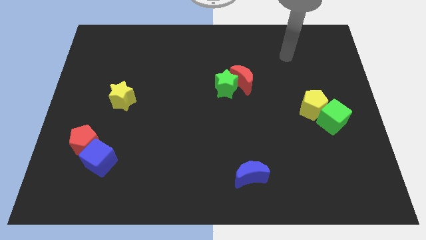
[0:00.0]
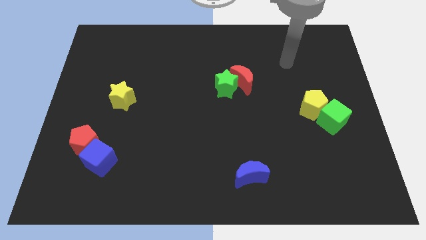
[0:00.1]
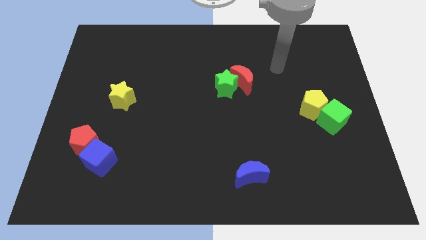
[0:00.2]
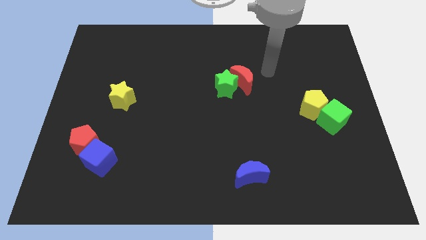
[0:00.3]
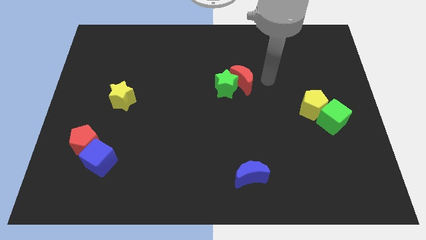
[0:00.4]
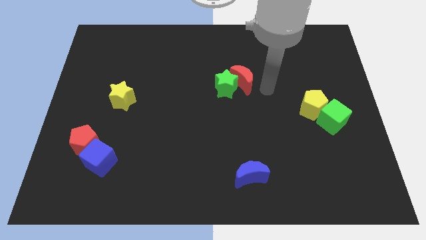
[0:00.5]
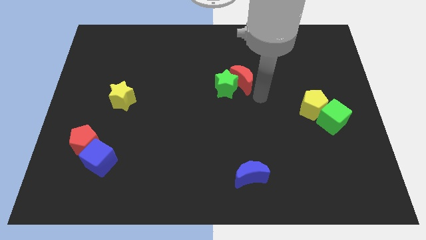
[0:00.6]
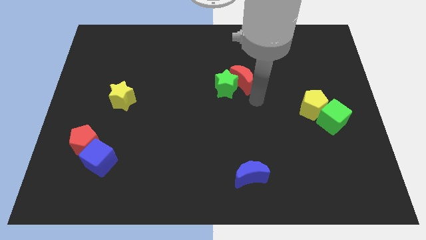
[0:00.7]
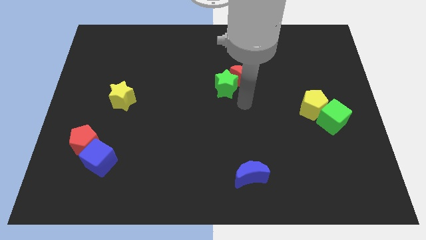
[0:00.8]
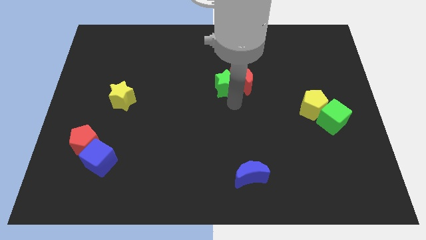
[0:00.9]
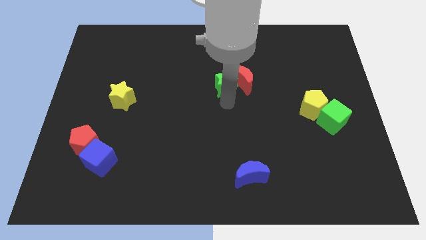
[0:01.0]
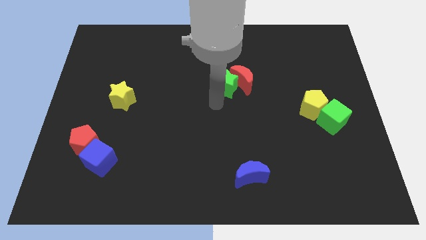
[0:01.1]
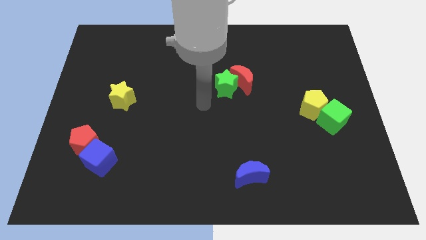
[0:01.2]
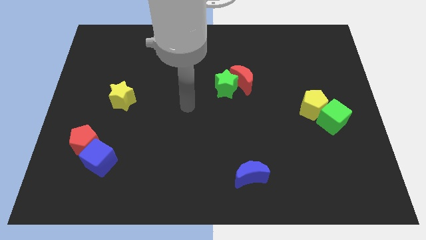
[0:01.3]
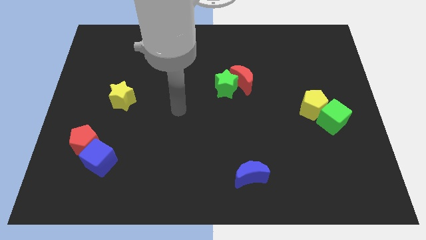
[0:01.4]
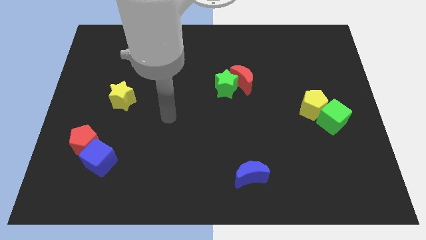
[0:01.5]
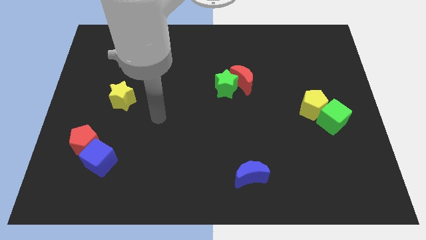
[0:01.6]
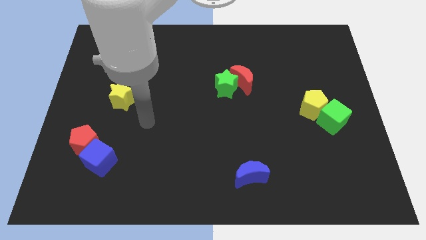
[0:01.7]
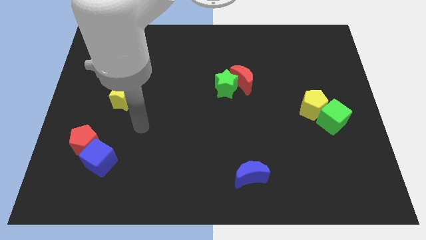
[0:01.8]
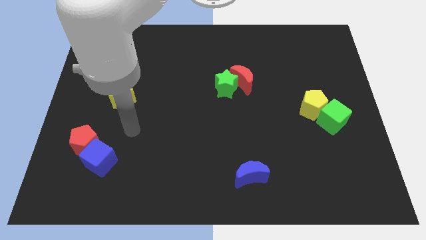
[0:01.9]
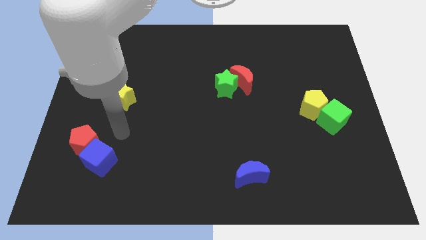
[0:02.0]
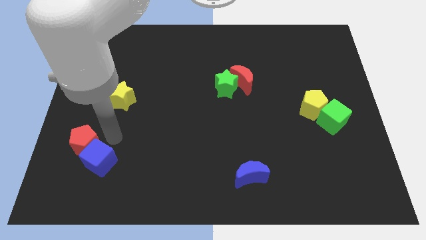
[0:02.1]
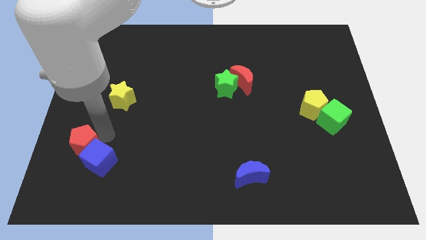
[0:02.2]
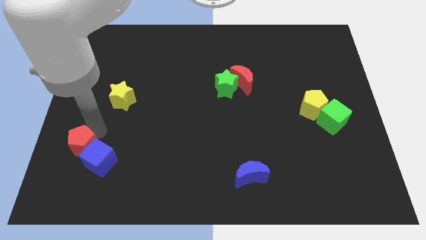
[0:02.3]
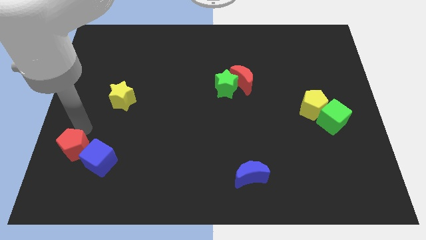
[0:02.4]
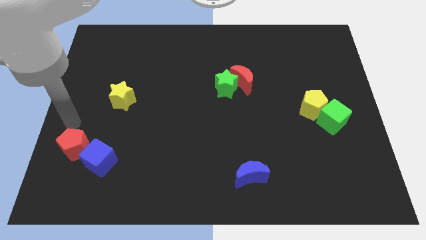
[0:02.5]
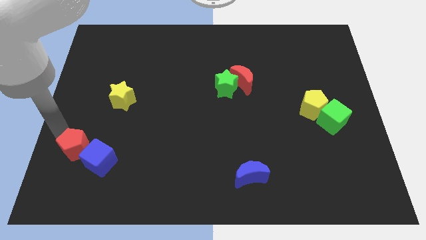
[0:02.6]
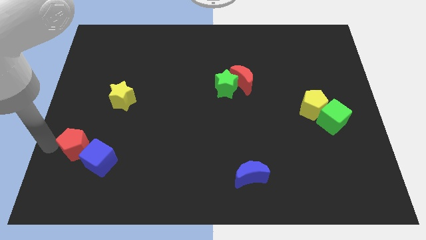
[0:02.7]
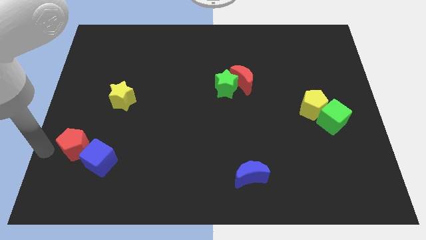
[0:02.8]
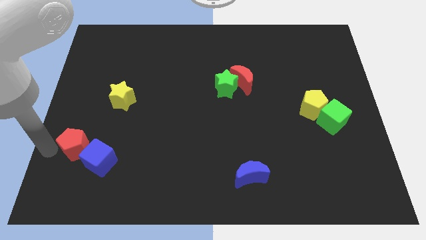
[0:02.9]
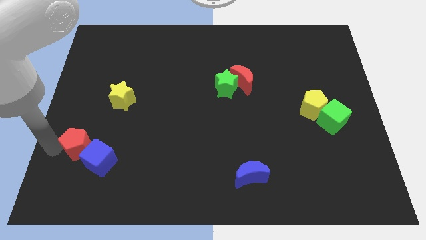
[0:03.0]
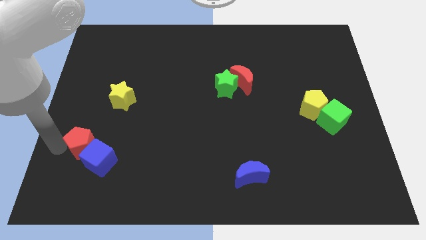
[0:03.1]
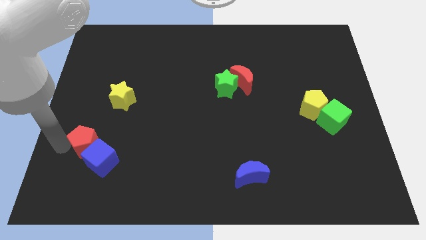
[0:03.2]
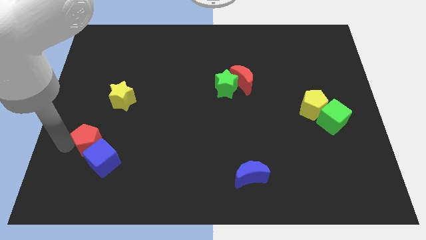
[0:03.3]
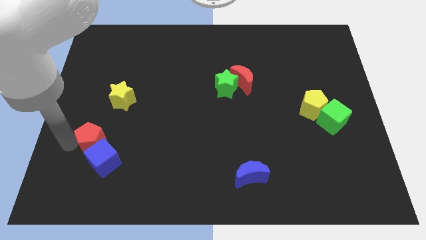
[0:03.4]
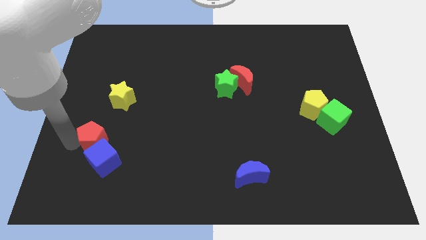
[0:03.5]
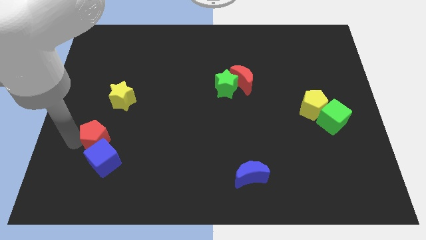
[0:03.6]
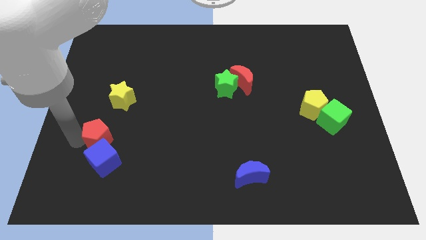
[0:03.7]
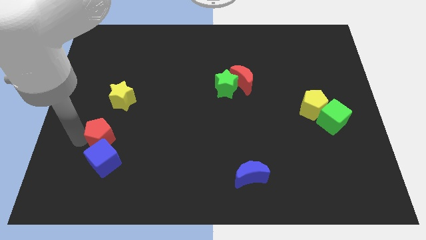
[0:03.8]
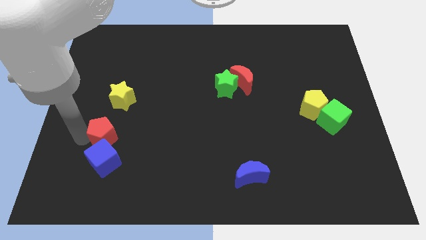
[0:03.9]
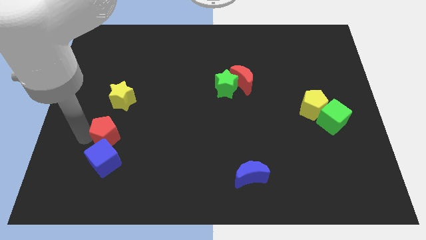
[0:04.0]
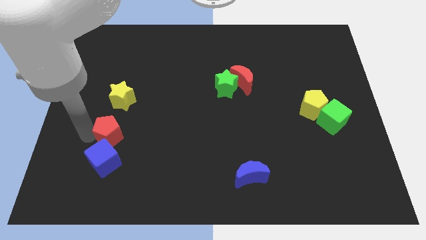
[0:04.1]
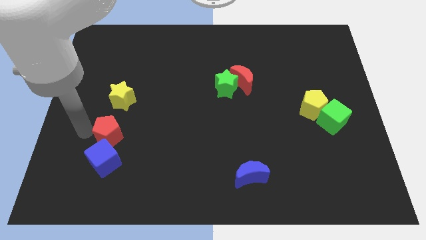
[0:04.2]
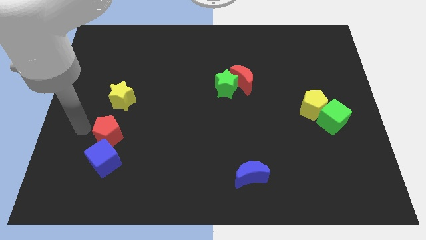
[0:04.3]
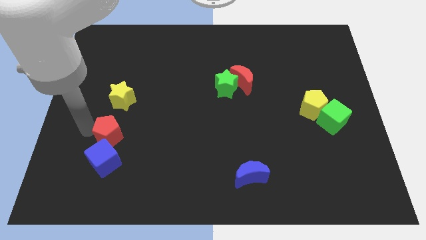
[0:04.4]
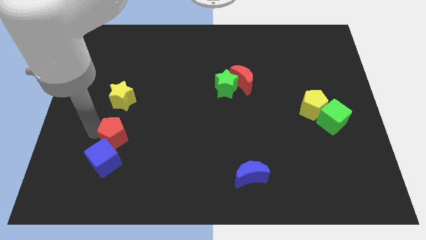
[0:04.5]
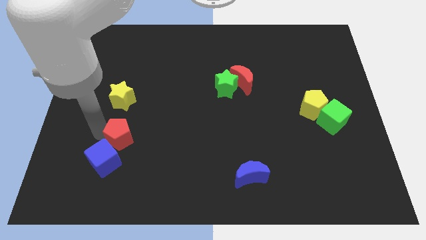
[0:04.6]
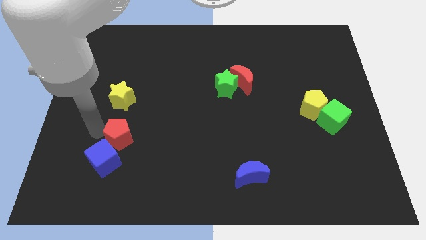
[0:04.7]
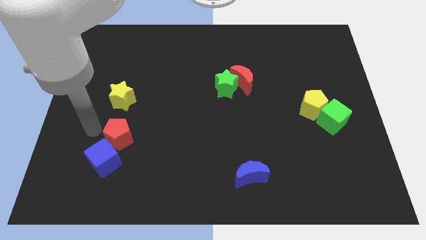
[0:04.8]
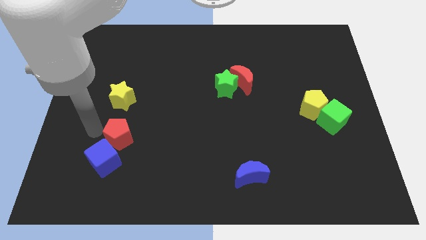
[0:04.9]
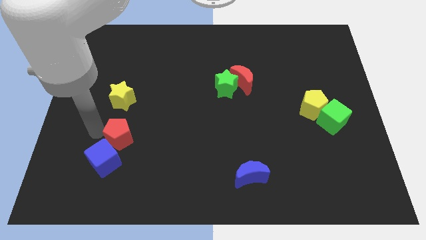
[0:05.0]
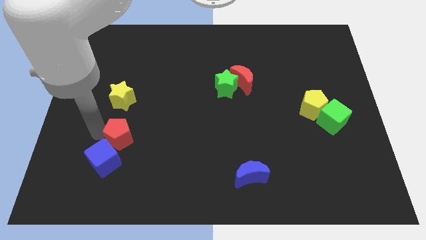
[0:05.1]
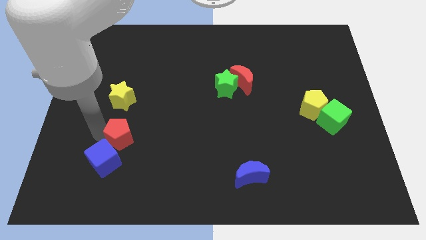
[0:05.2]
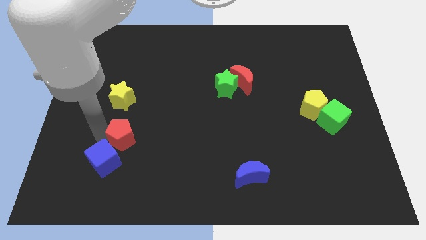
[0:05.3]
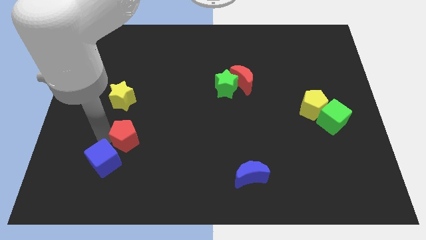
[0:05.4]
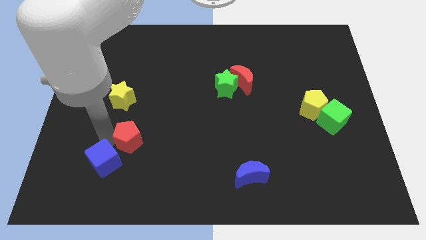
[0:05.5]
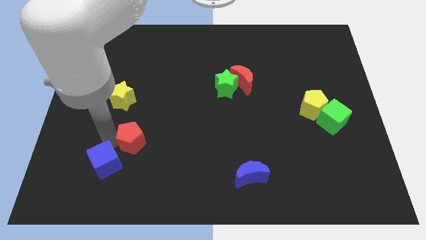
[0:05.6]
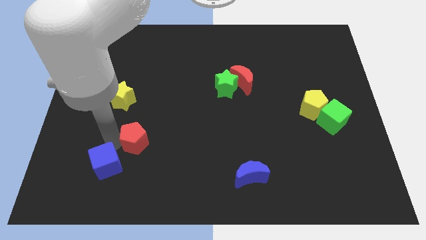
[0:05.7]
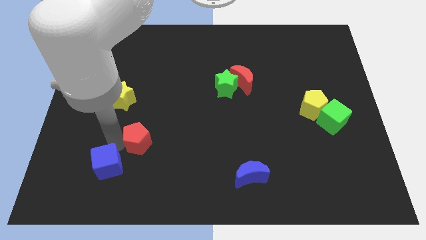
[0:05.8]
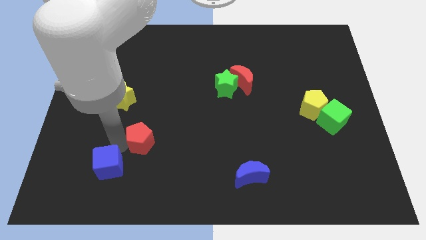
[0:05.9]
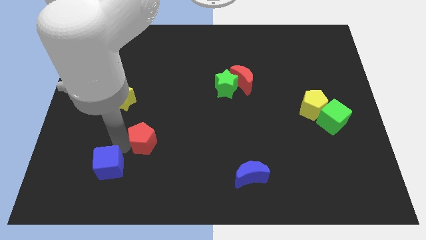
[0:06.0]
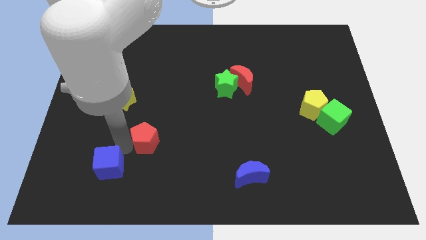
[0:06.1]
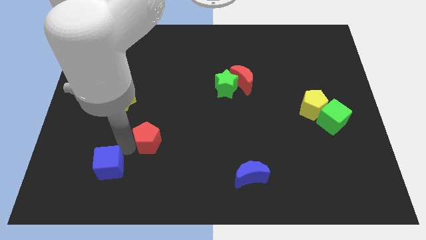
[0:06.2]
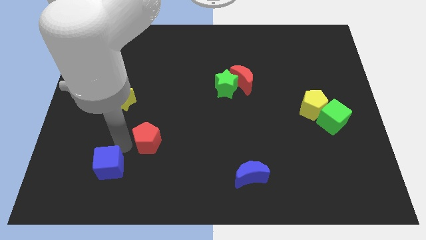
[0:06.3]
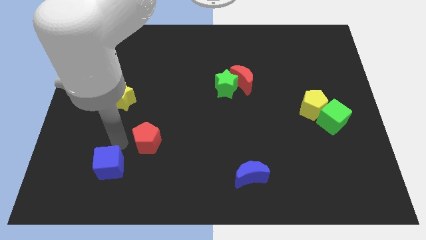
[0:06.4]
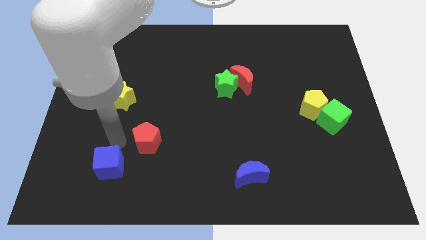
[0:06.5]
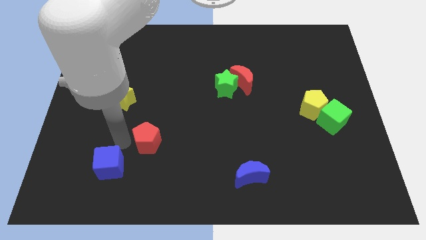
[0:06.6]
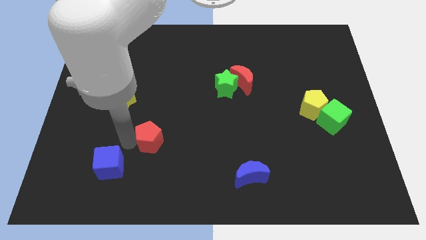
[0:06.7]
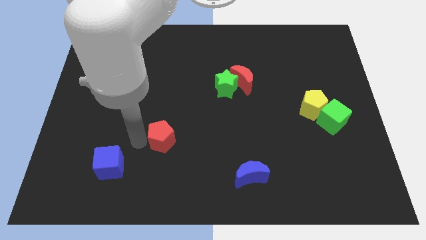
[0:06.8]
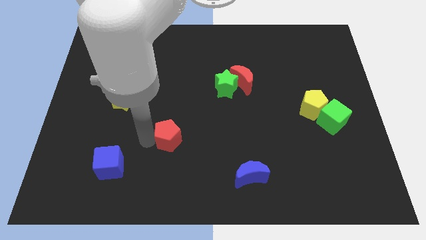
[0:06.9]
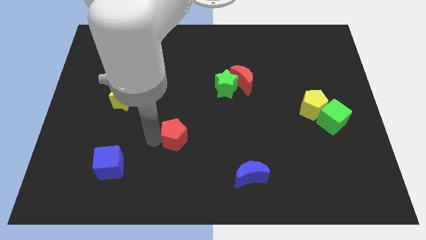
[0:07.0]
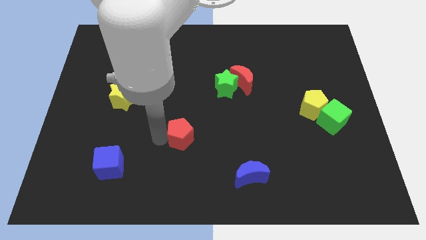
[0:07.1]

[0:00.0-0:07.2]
push the red pentagon to the right

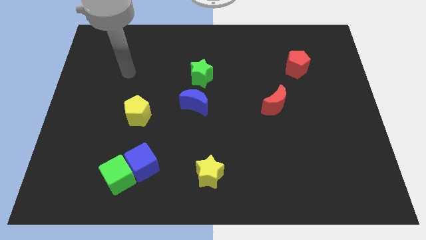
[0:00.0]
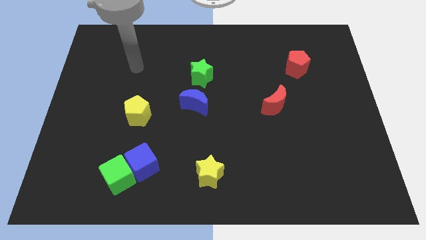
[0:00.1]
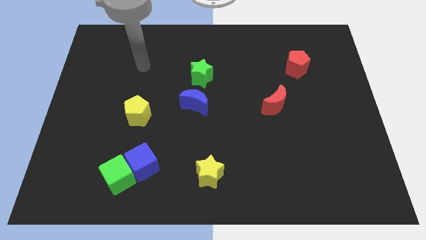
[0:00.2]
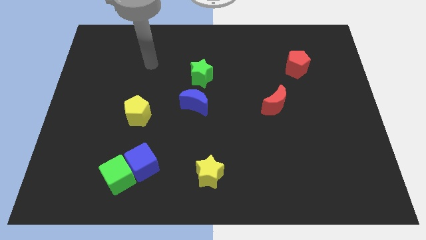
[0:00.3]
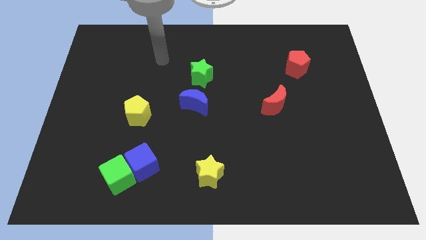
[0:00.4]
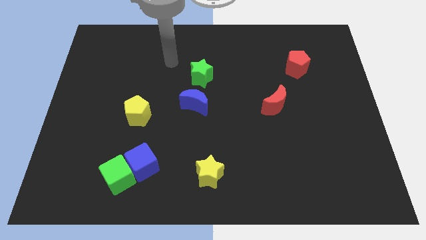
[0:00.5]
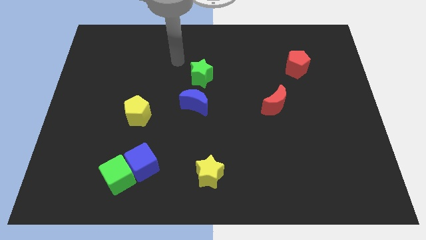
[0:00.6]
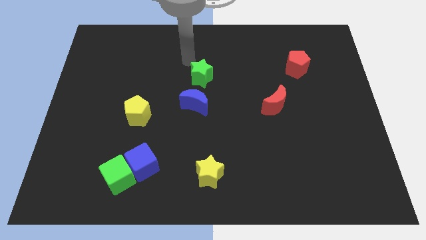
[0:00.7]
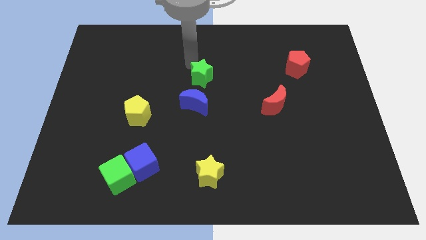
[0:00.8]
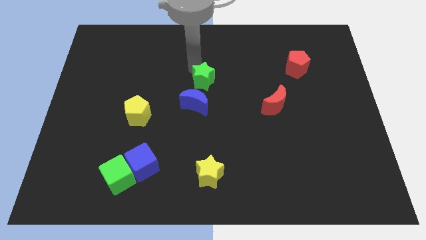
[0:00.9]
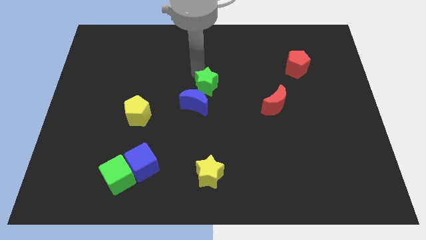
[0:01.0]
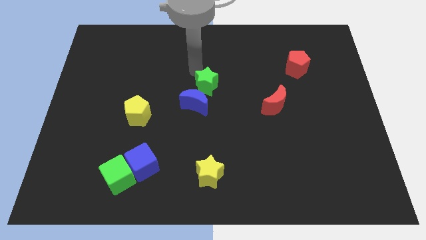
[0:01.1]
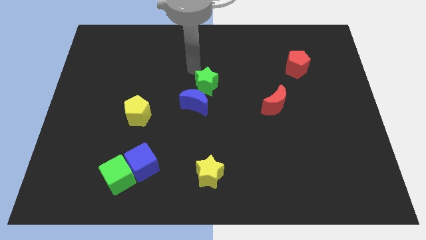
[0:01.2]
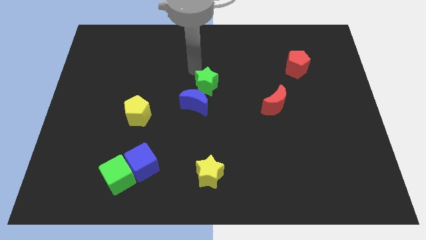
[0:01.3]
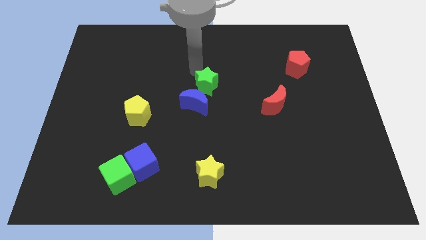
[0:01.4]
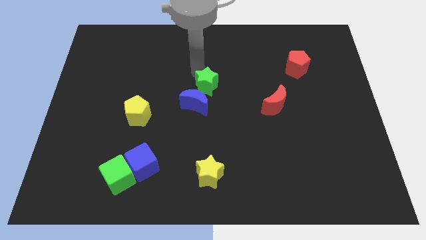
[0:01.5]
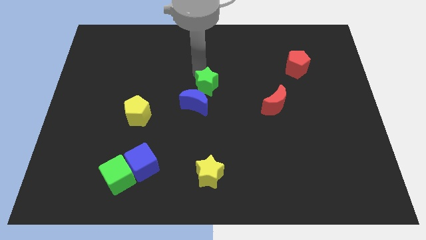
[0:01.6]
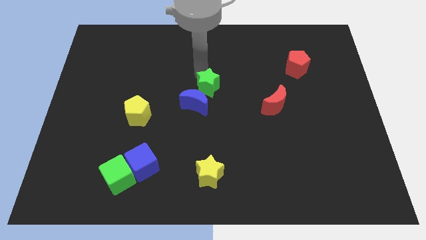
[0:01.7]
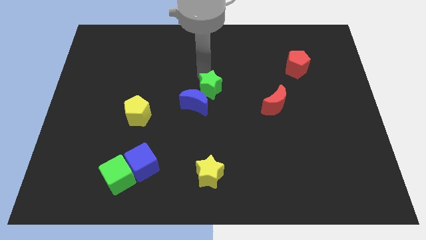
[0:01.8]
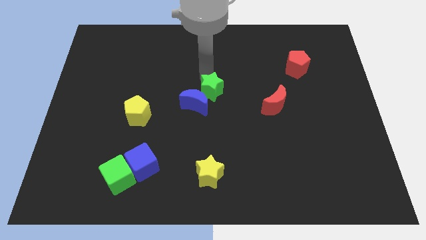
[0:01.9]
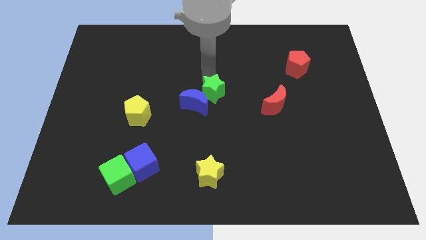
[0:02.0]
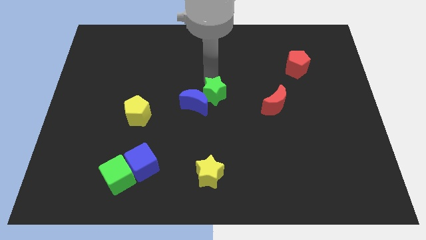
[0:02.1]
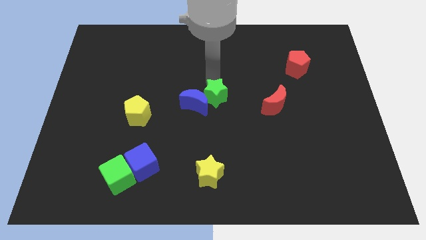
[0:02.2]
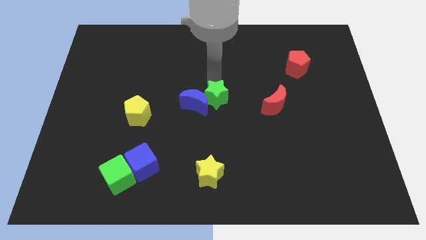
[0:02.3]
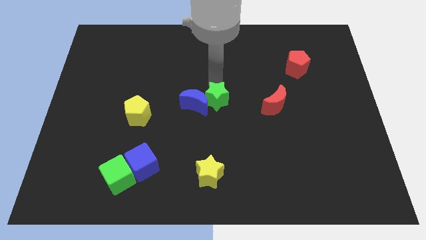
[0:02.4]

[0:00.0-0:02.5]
slightly move the green star down
